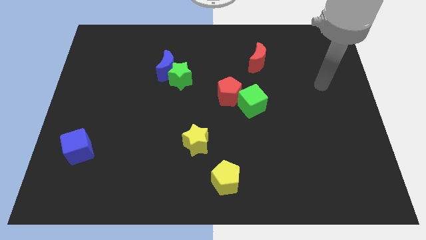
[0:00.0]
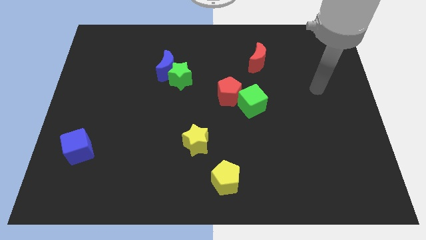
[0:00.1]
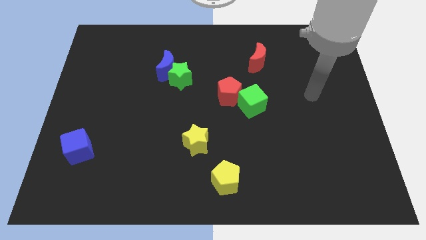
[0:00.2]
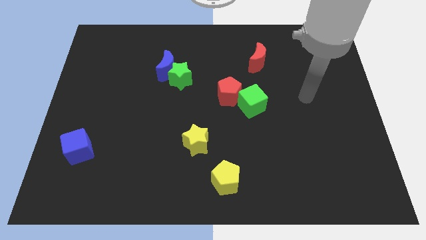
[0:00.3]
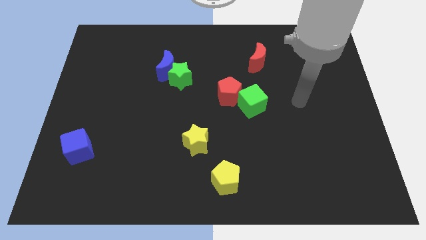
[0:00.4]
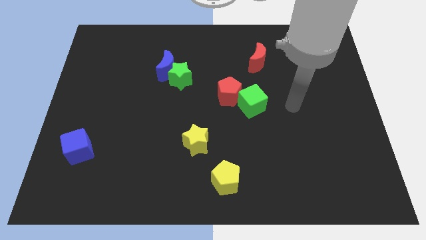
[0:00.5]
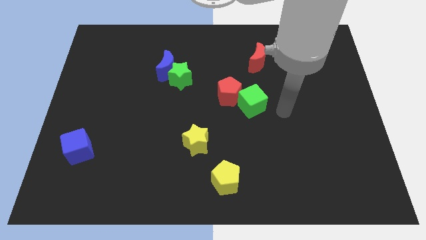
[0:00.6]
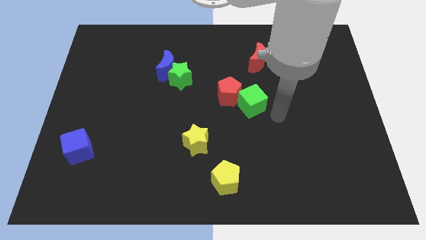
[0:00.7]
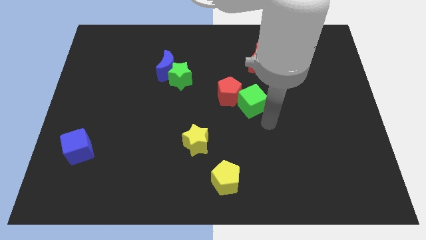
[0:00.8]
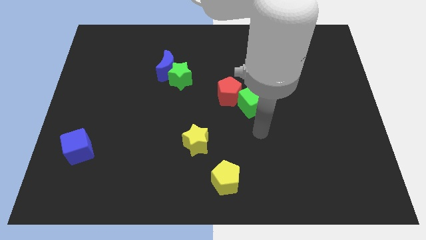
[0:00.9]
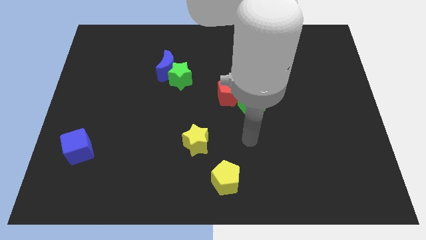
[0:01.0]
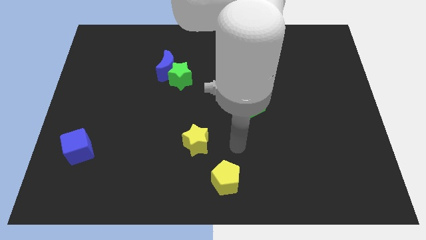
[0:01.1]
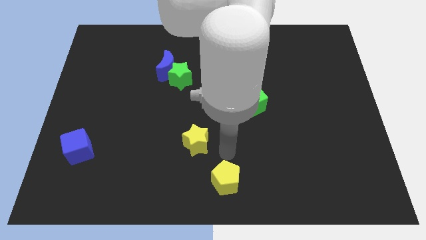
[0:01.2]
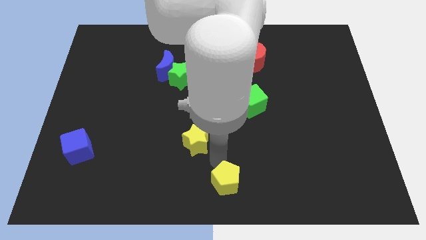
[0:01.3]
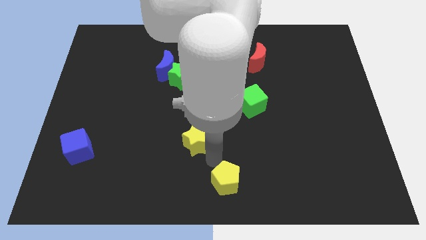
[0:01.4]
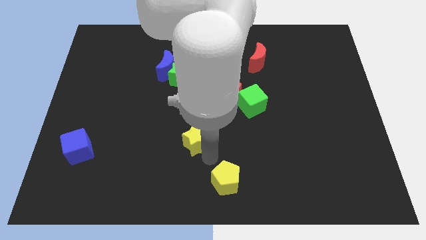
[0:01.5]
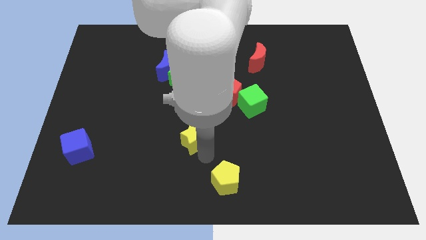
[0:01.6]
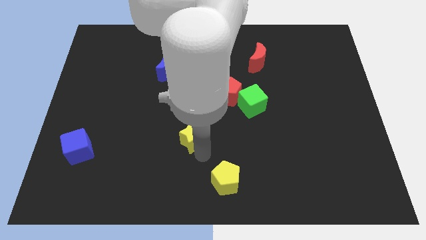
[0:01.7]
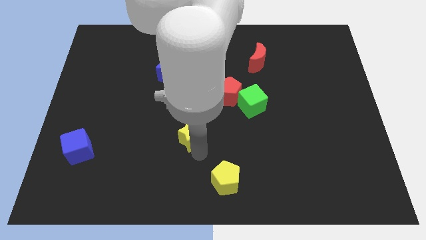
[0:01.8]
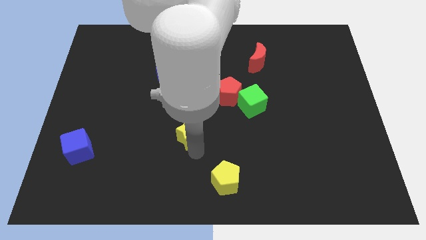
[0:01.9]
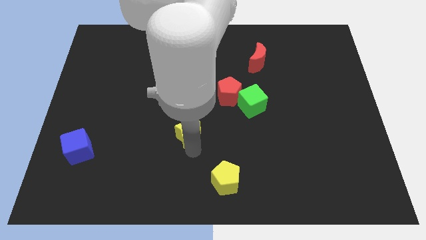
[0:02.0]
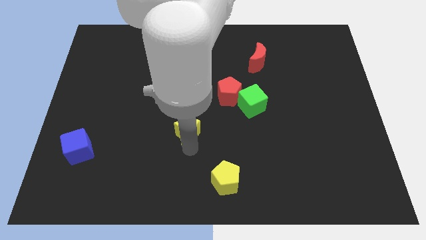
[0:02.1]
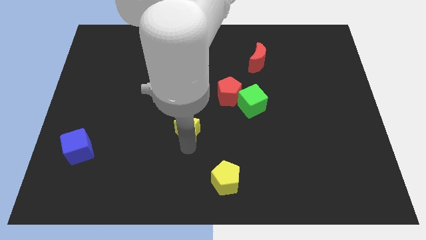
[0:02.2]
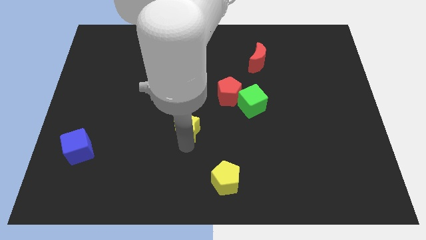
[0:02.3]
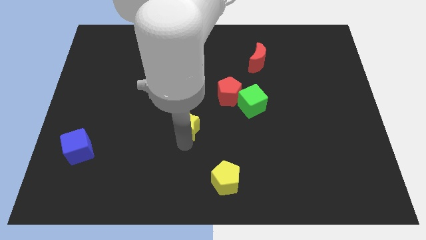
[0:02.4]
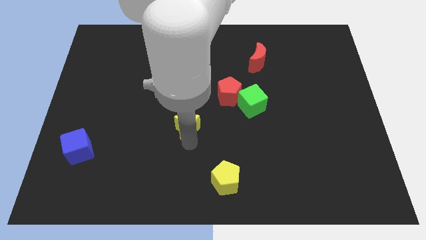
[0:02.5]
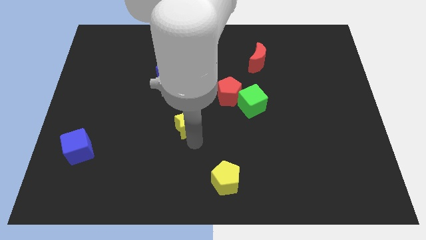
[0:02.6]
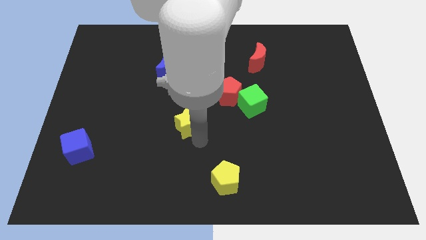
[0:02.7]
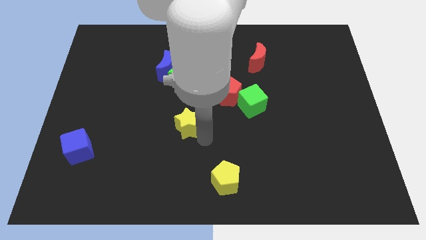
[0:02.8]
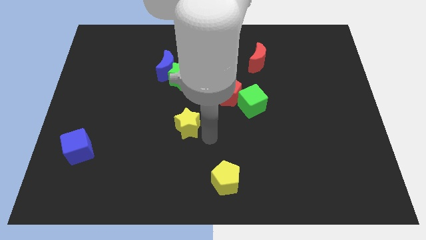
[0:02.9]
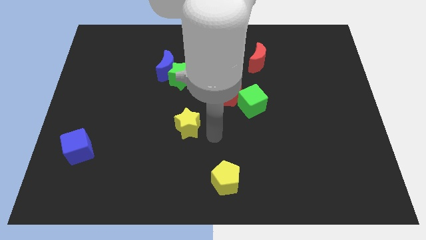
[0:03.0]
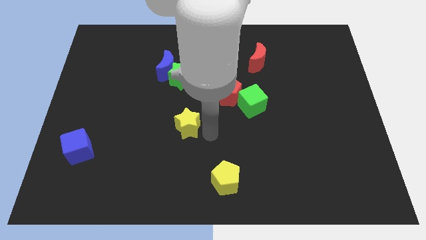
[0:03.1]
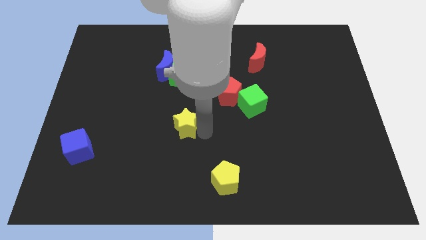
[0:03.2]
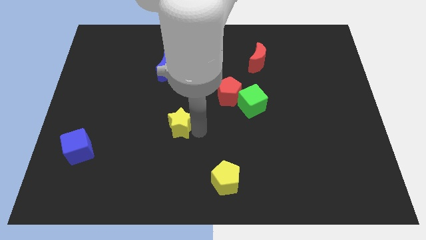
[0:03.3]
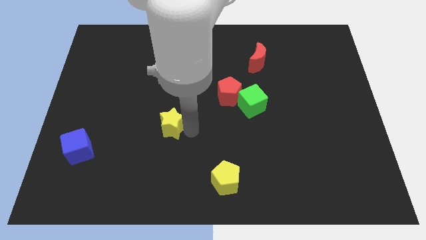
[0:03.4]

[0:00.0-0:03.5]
slide the yellow star up and left a bit

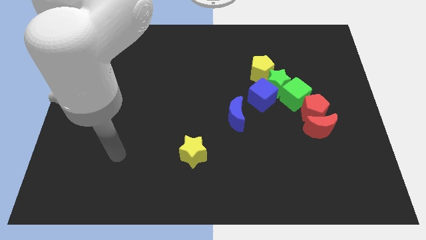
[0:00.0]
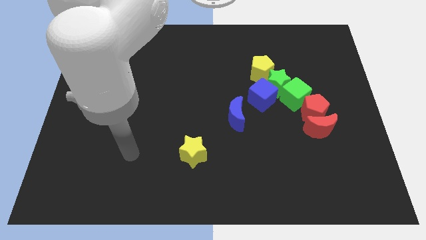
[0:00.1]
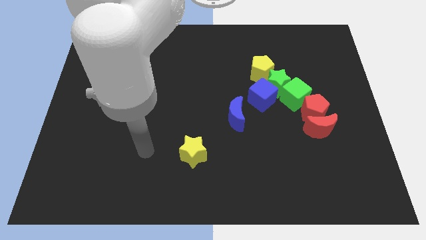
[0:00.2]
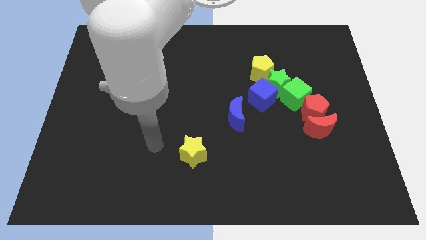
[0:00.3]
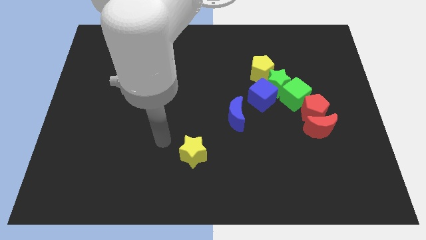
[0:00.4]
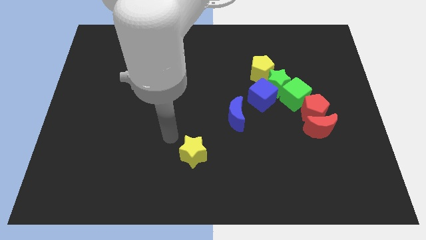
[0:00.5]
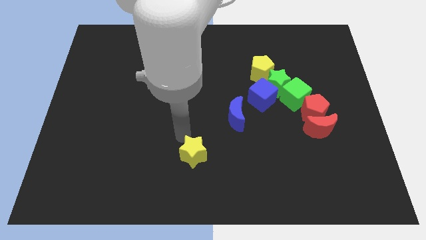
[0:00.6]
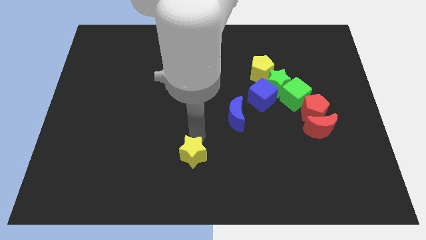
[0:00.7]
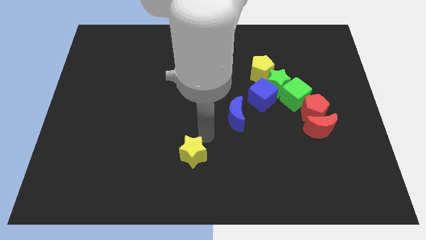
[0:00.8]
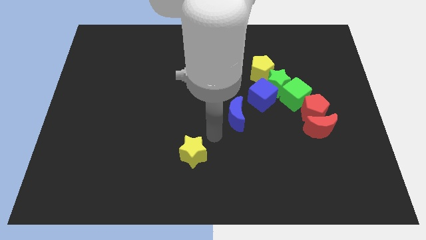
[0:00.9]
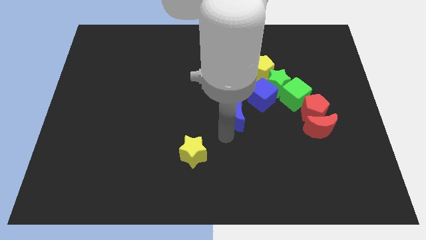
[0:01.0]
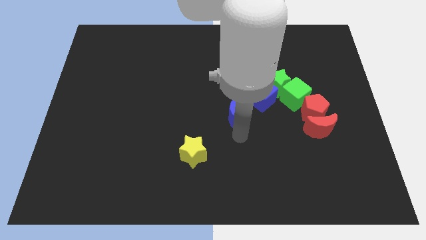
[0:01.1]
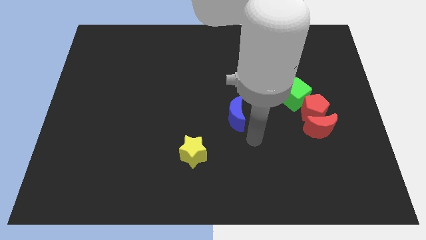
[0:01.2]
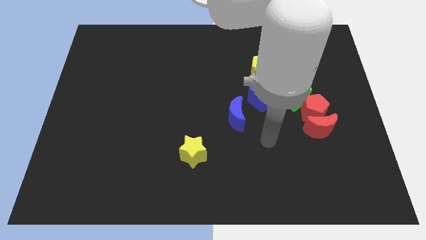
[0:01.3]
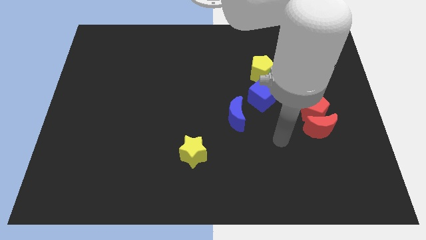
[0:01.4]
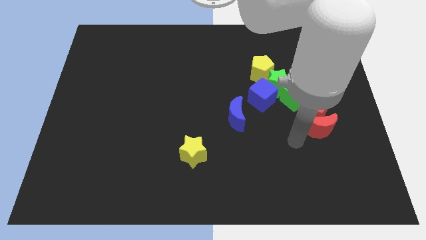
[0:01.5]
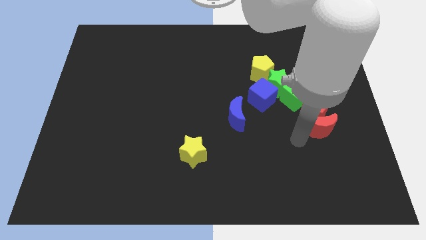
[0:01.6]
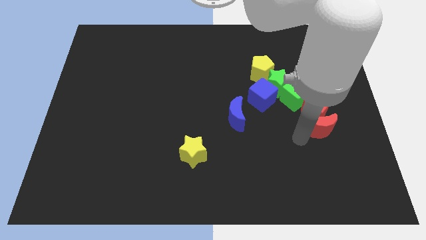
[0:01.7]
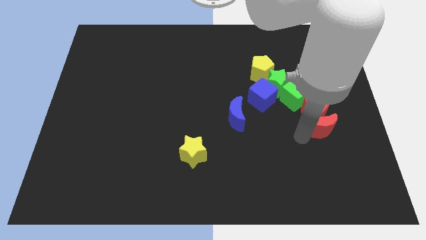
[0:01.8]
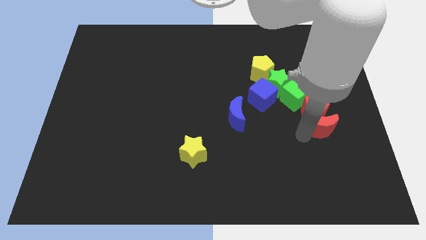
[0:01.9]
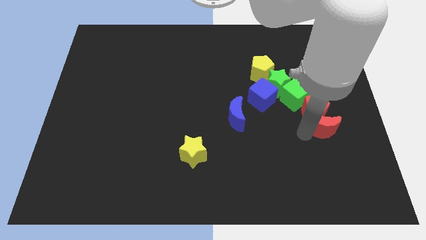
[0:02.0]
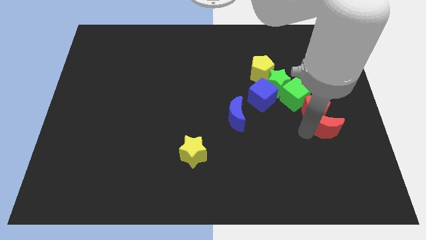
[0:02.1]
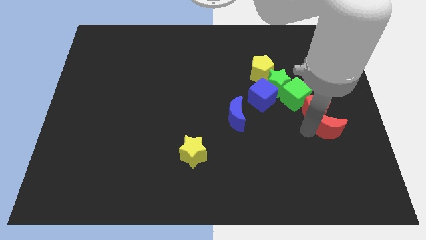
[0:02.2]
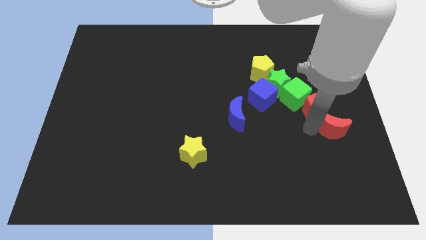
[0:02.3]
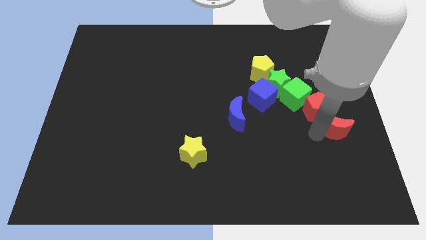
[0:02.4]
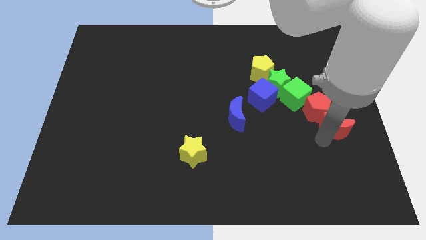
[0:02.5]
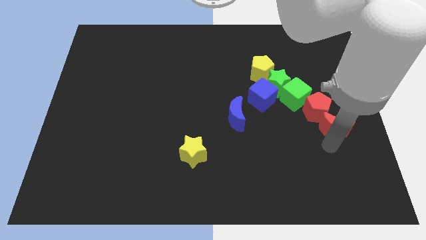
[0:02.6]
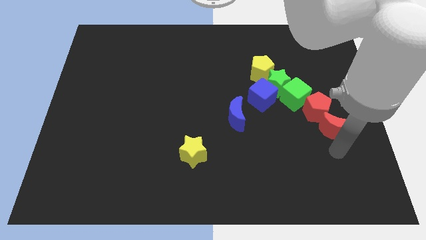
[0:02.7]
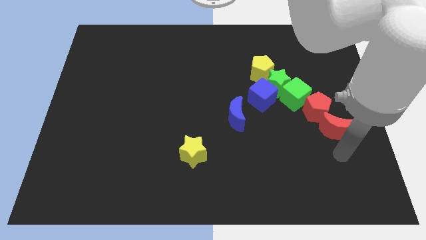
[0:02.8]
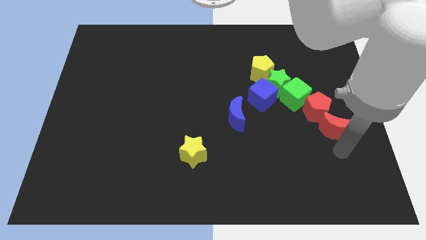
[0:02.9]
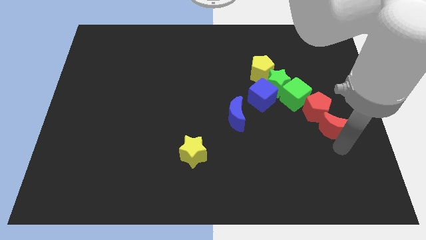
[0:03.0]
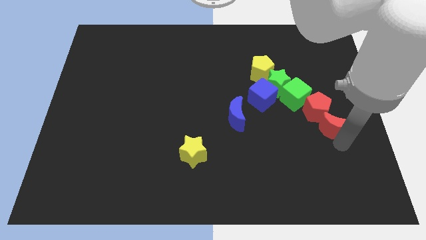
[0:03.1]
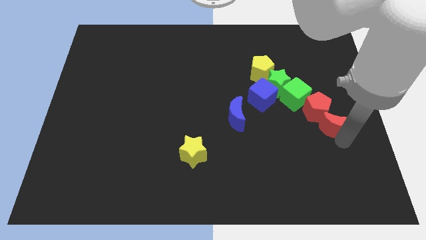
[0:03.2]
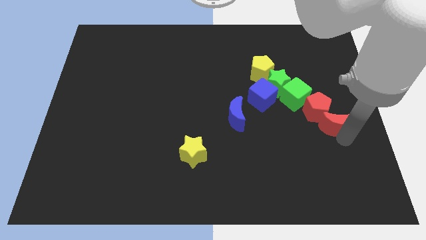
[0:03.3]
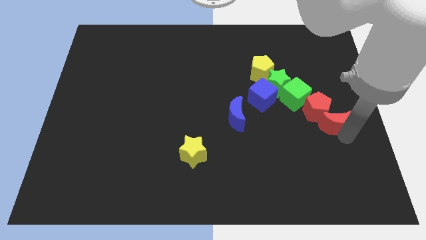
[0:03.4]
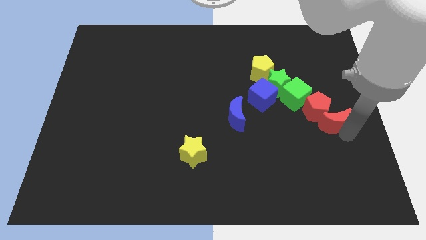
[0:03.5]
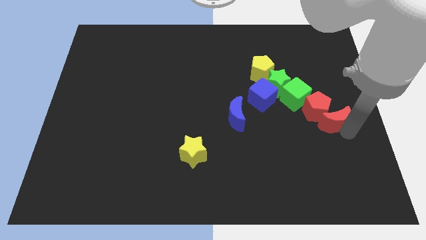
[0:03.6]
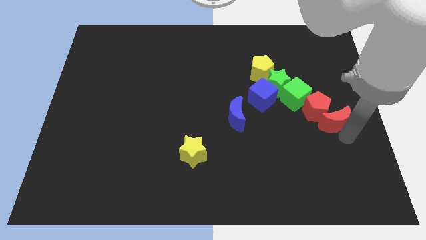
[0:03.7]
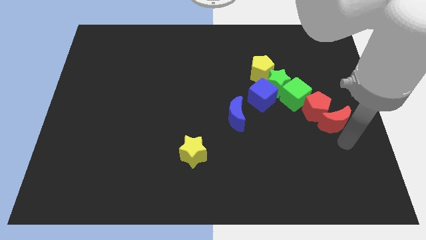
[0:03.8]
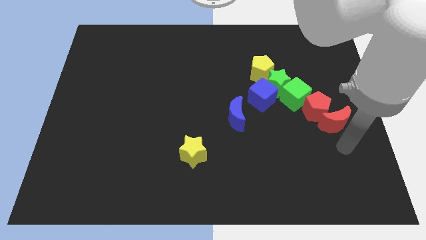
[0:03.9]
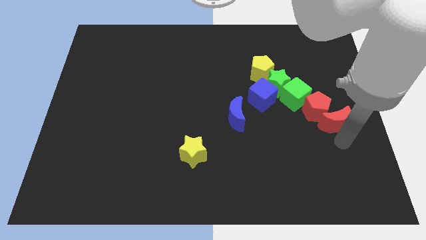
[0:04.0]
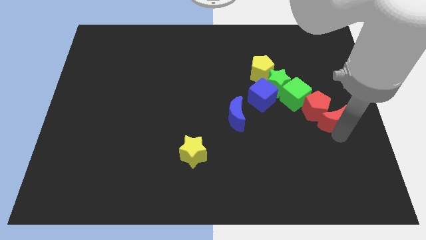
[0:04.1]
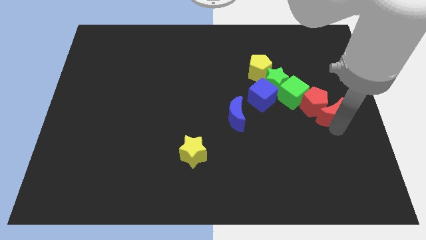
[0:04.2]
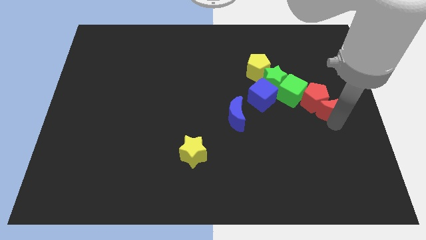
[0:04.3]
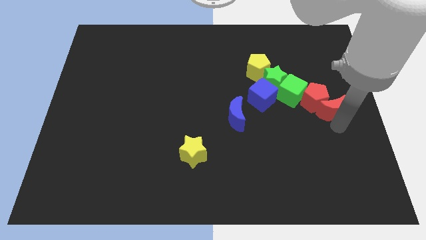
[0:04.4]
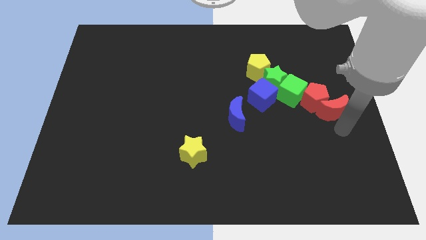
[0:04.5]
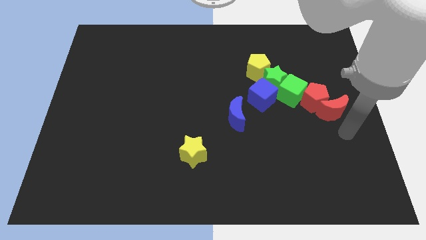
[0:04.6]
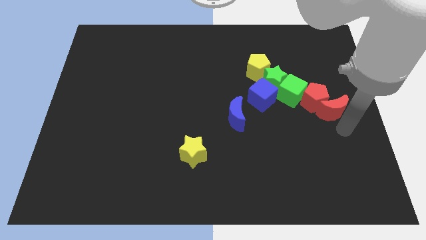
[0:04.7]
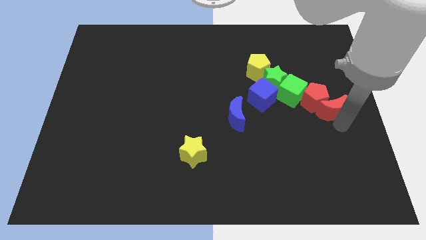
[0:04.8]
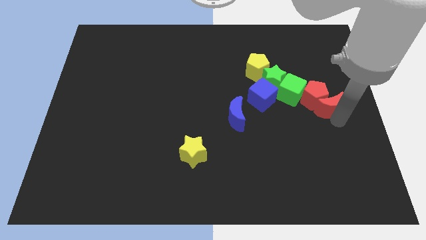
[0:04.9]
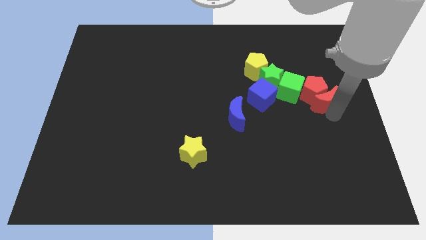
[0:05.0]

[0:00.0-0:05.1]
move the red moon upwards slightly
